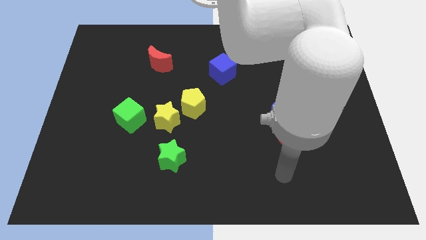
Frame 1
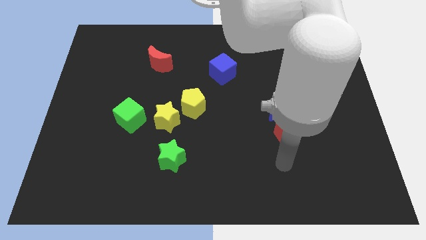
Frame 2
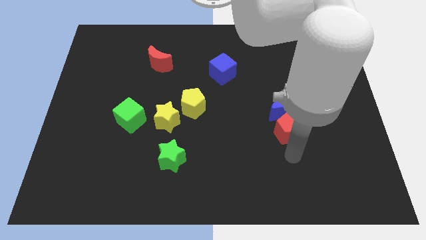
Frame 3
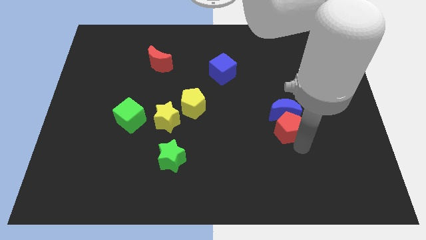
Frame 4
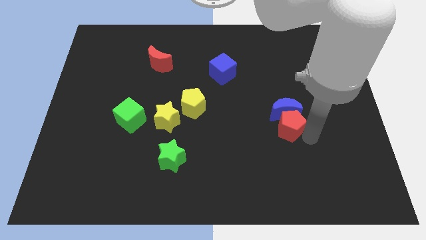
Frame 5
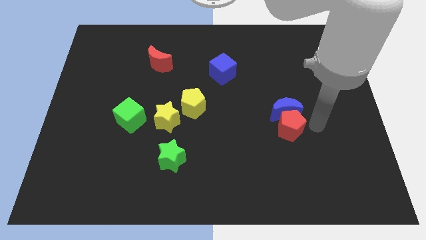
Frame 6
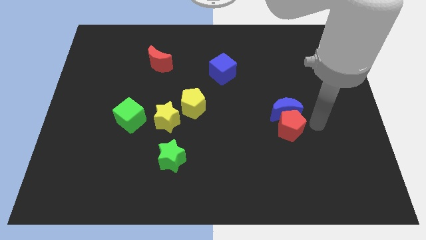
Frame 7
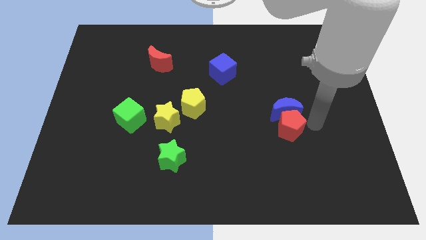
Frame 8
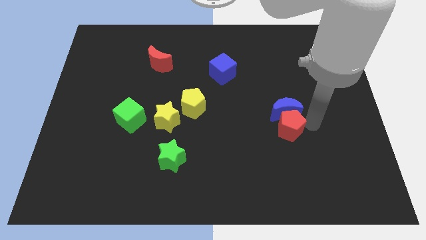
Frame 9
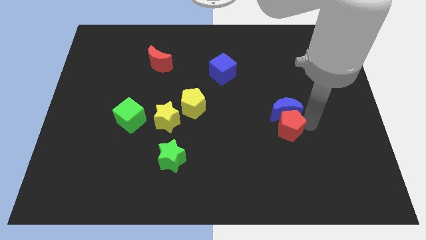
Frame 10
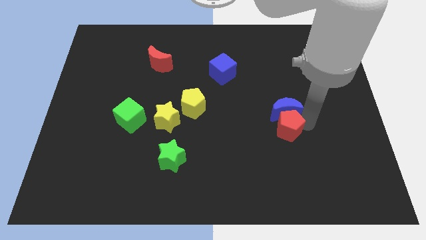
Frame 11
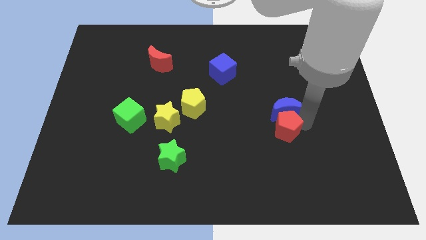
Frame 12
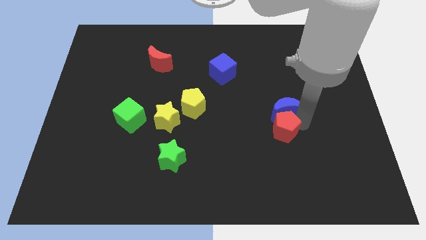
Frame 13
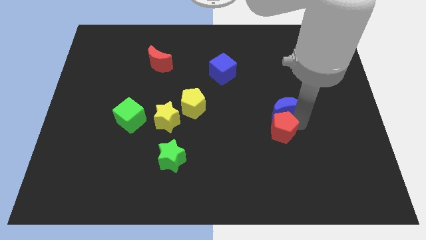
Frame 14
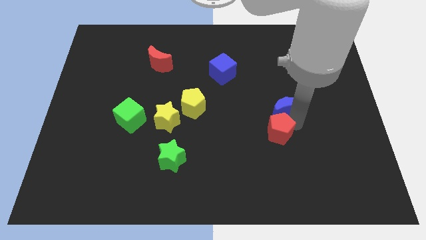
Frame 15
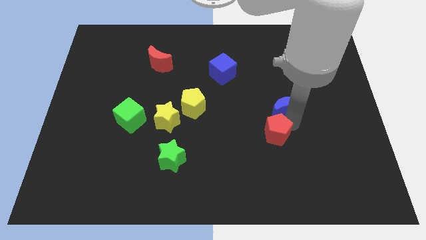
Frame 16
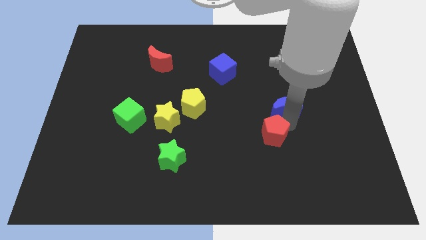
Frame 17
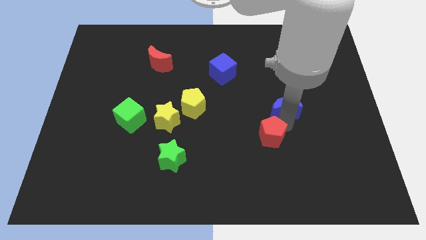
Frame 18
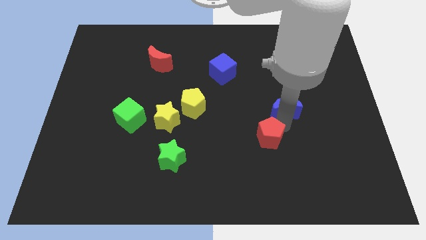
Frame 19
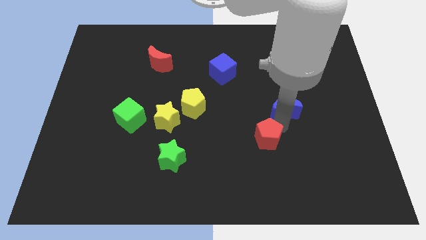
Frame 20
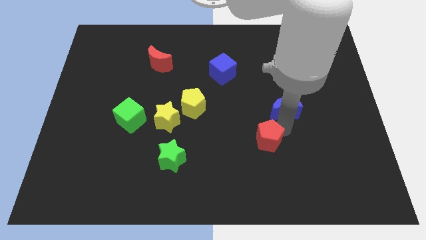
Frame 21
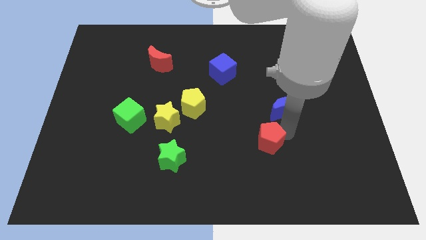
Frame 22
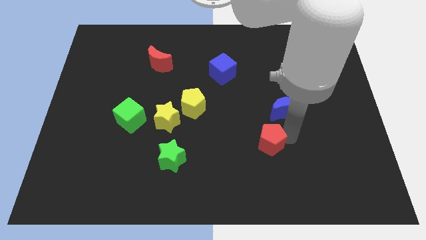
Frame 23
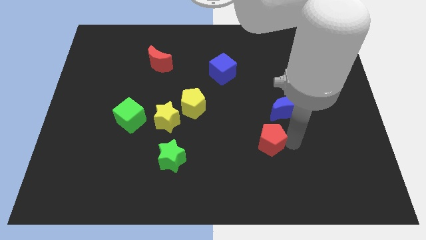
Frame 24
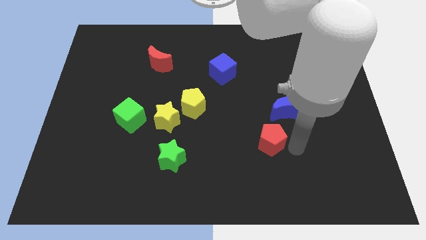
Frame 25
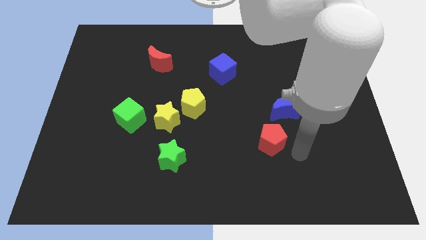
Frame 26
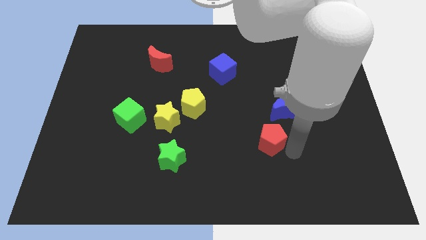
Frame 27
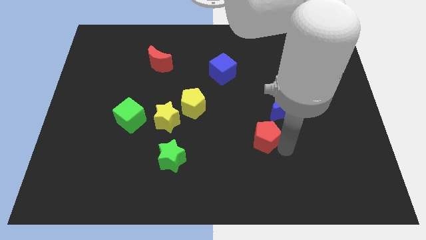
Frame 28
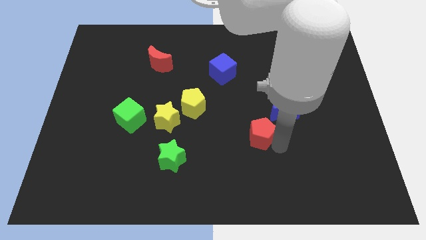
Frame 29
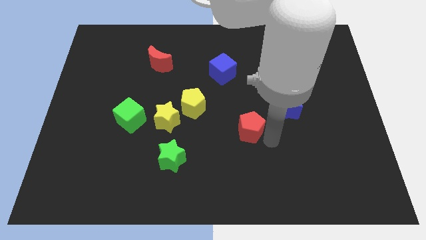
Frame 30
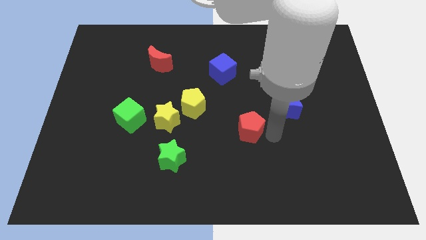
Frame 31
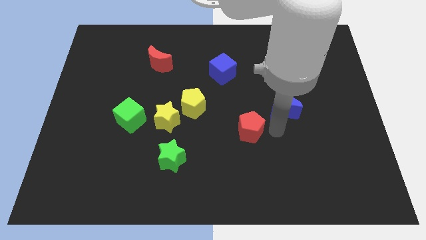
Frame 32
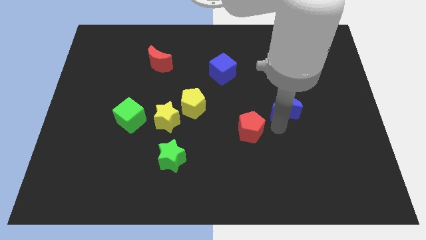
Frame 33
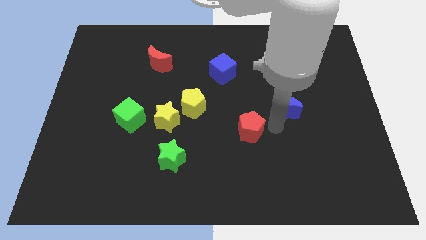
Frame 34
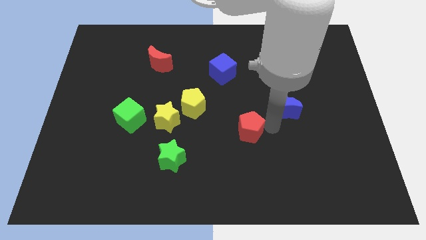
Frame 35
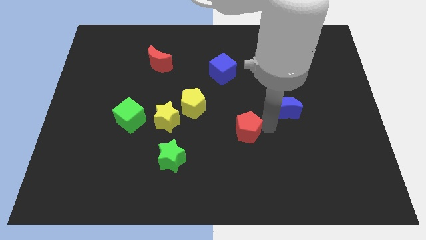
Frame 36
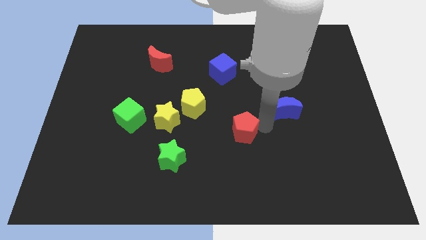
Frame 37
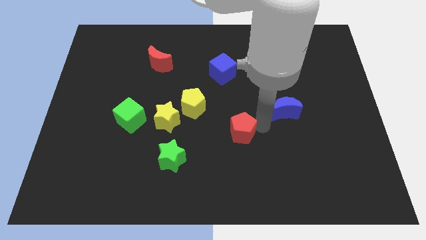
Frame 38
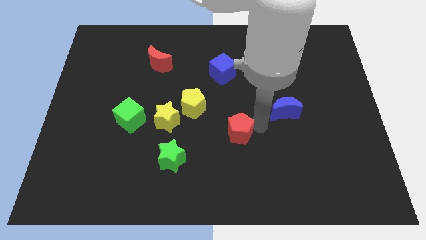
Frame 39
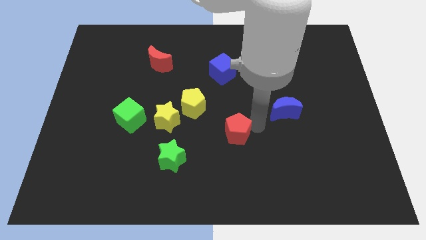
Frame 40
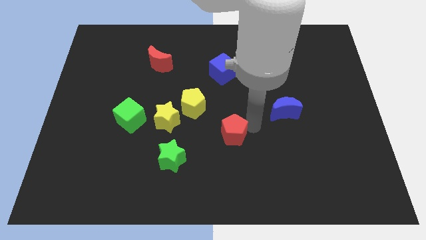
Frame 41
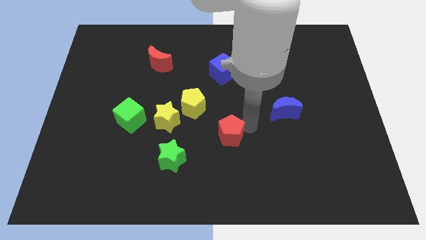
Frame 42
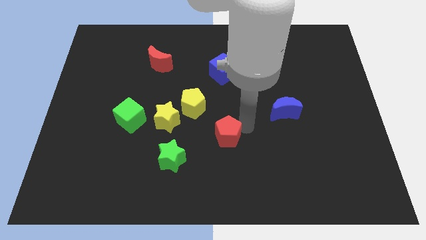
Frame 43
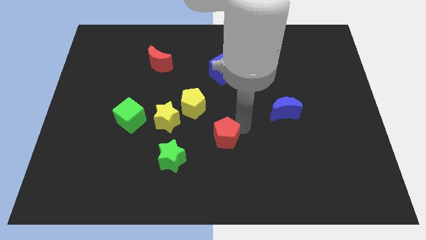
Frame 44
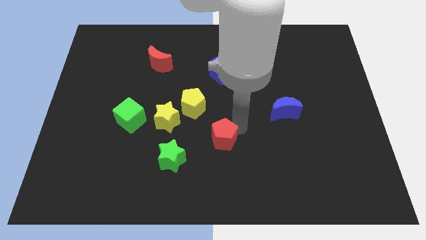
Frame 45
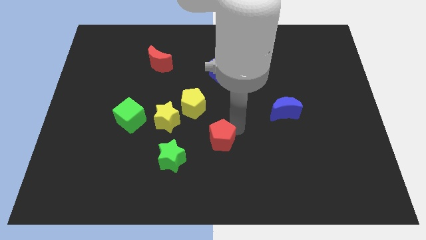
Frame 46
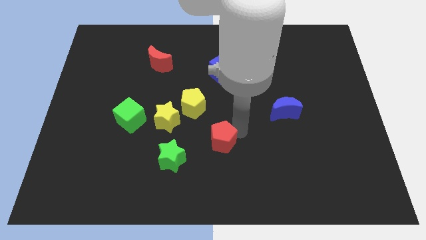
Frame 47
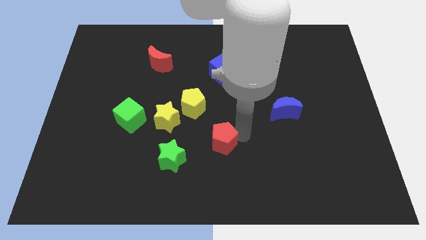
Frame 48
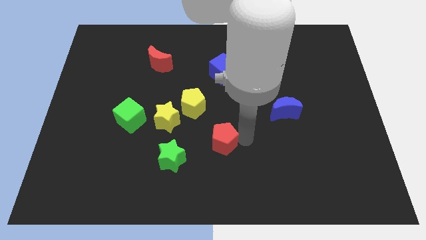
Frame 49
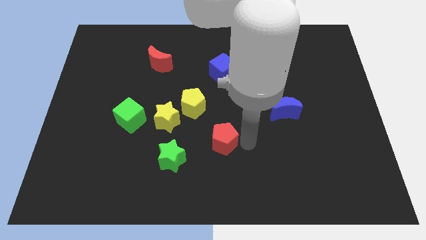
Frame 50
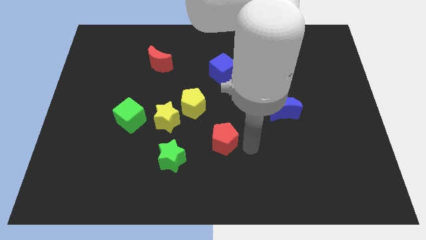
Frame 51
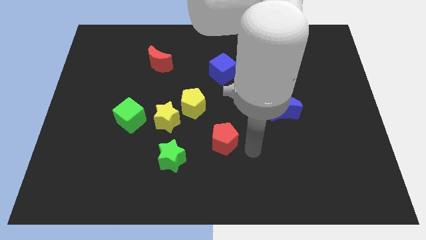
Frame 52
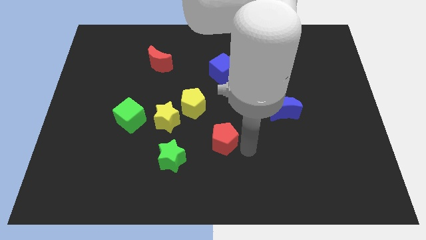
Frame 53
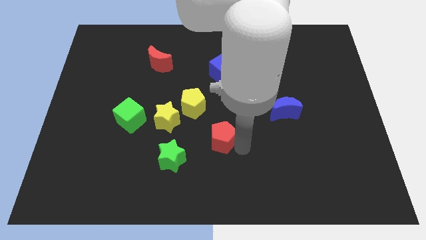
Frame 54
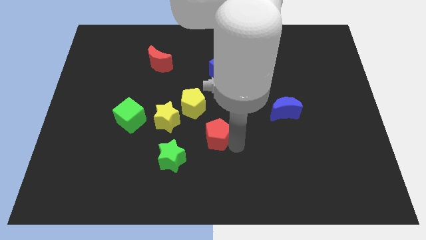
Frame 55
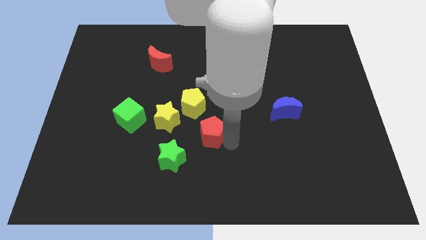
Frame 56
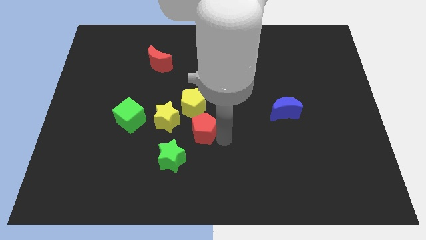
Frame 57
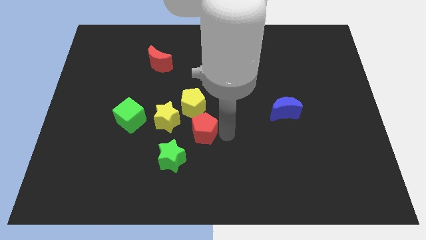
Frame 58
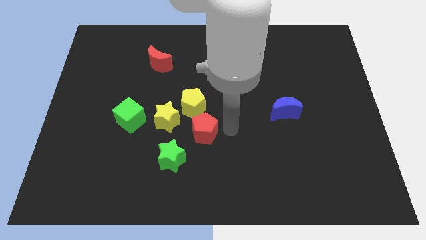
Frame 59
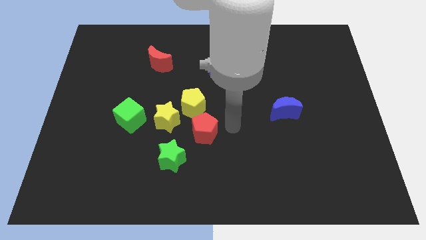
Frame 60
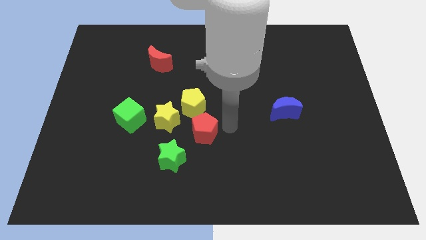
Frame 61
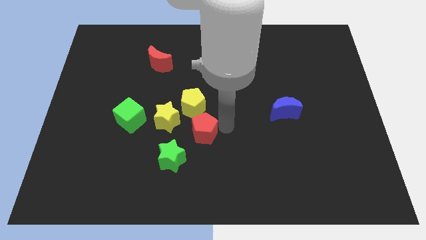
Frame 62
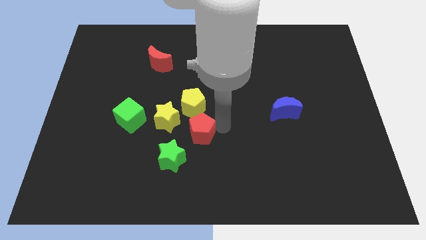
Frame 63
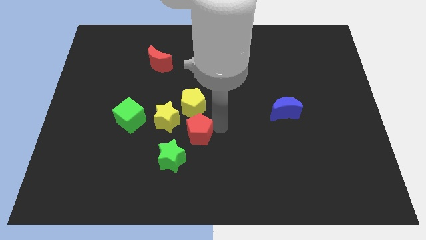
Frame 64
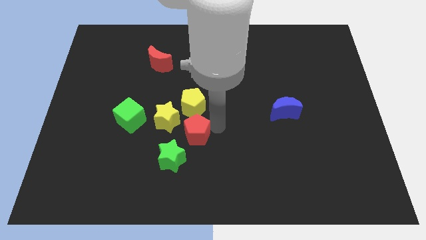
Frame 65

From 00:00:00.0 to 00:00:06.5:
slide the red pentagon left

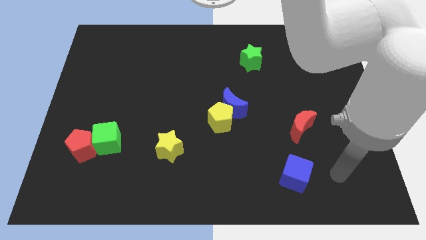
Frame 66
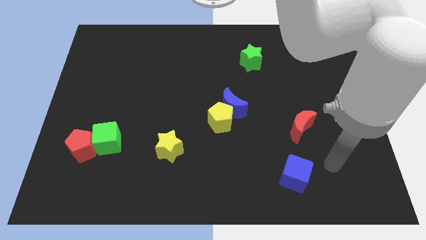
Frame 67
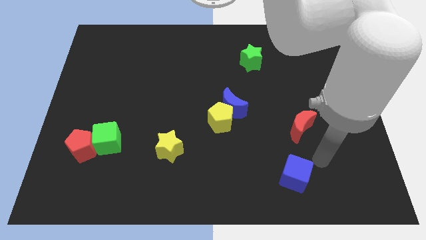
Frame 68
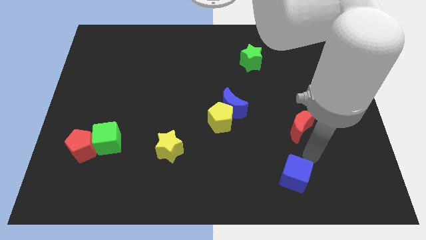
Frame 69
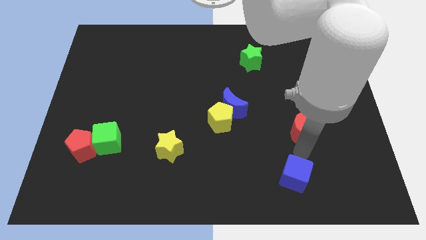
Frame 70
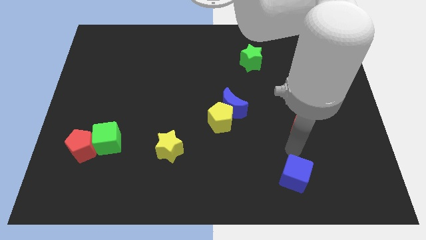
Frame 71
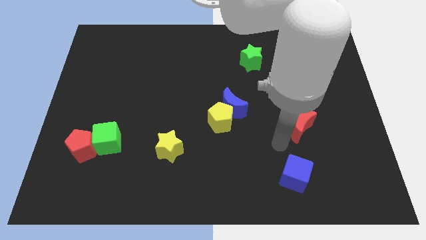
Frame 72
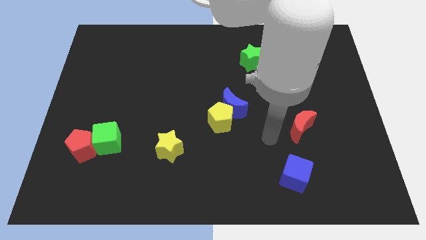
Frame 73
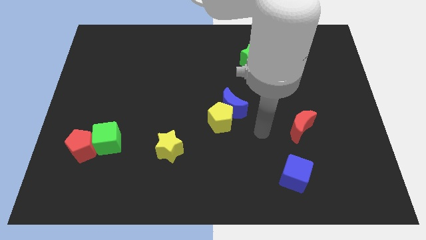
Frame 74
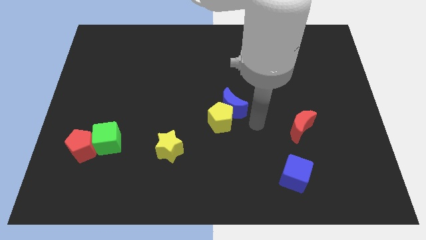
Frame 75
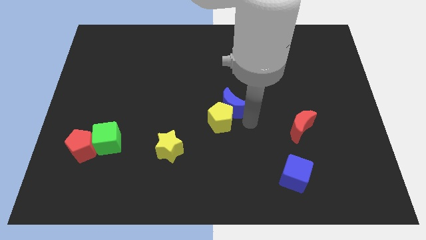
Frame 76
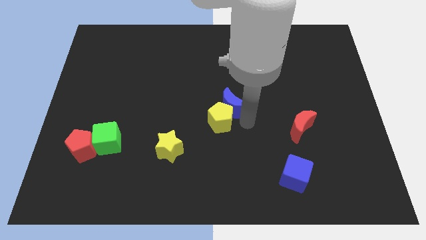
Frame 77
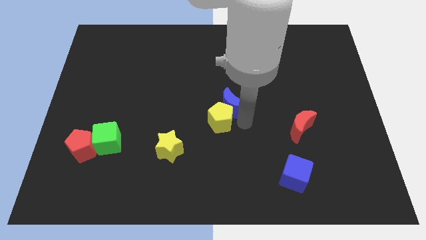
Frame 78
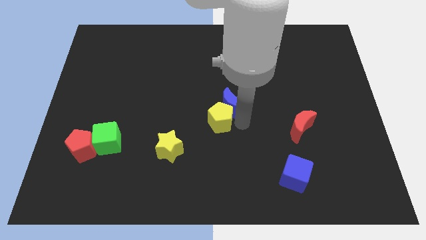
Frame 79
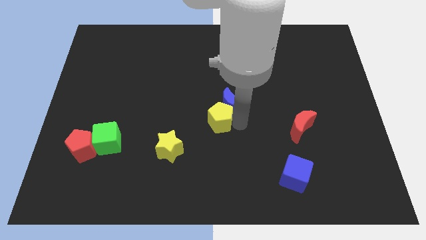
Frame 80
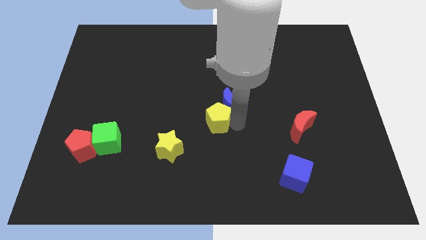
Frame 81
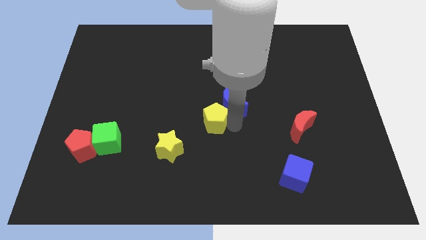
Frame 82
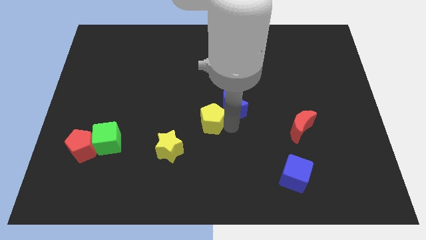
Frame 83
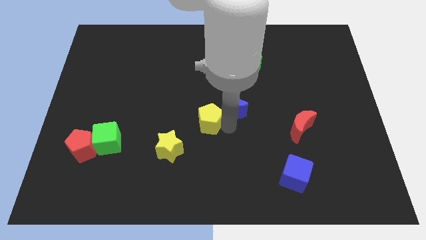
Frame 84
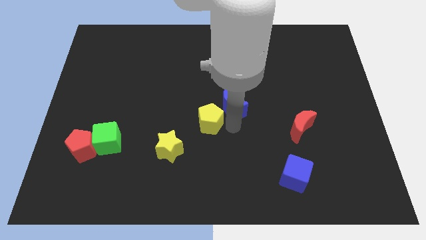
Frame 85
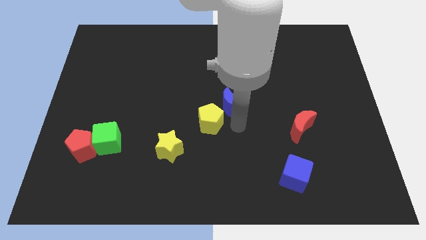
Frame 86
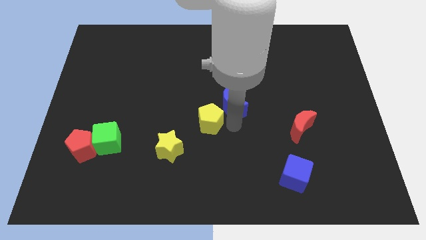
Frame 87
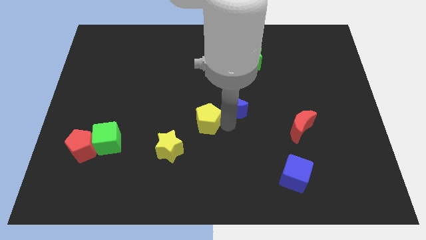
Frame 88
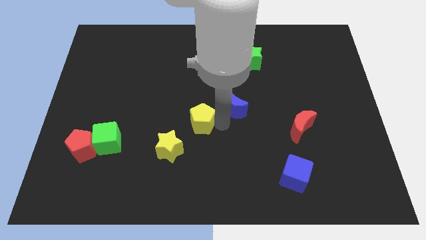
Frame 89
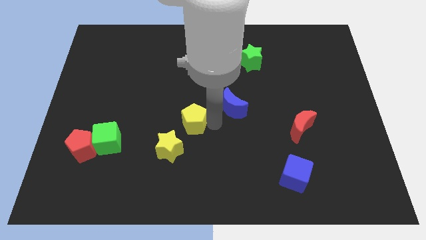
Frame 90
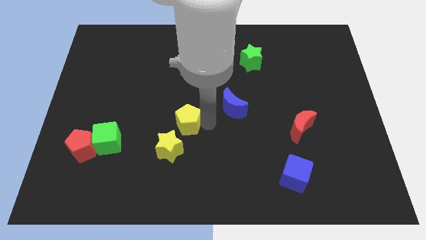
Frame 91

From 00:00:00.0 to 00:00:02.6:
slightly move the yellow pentagon left
